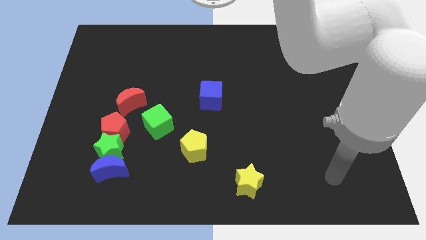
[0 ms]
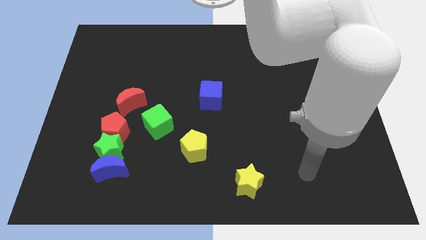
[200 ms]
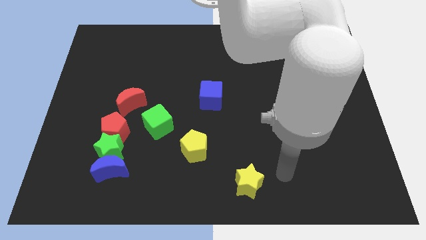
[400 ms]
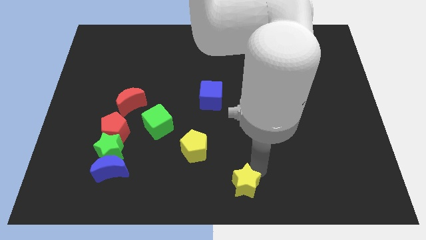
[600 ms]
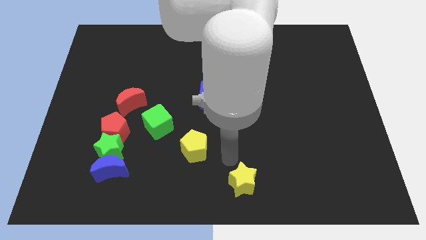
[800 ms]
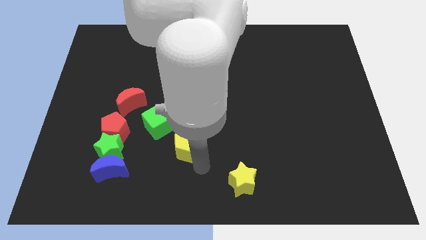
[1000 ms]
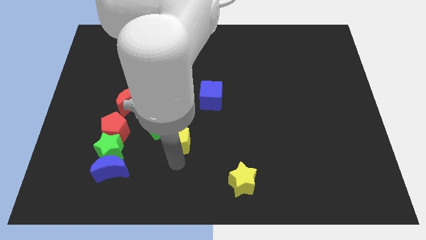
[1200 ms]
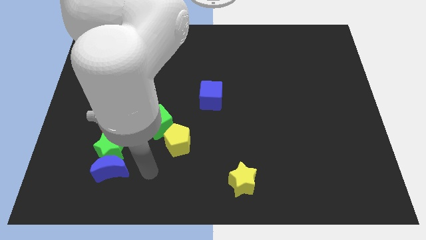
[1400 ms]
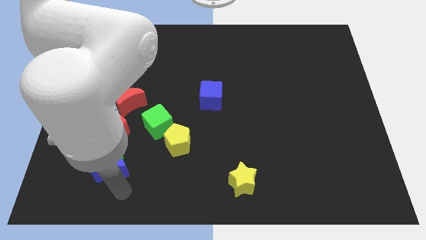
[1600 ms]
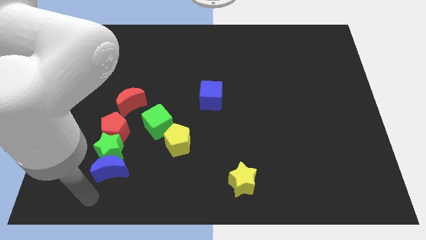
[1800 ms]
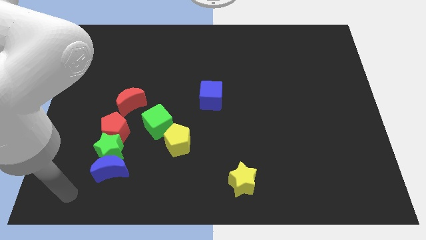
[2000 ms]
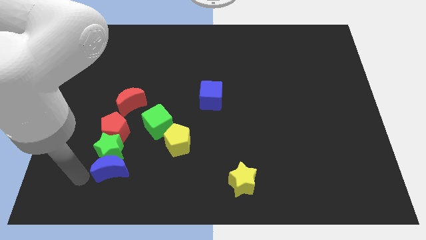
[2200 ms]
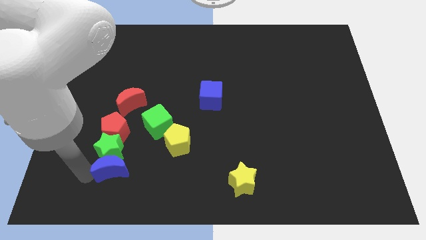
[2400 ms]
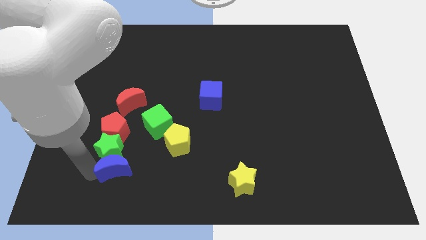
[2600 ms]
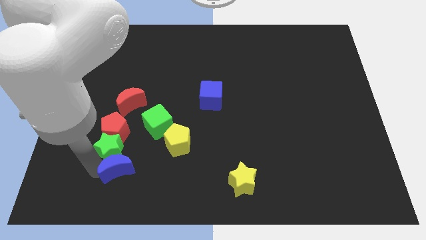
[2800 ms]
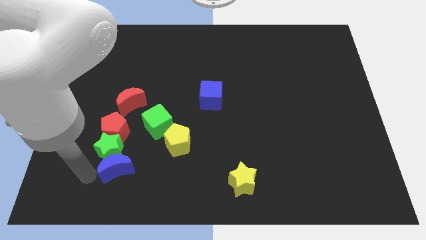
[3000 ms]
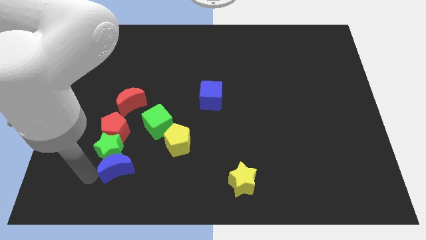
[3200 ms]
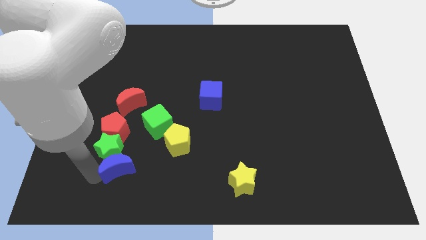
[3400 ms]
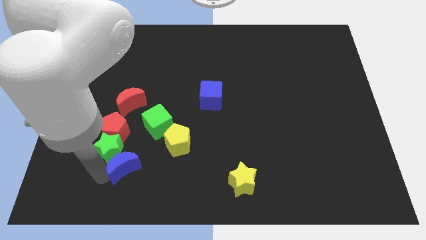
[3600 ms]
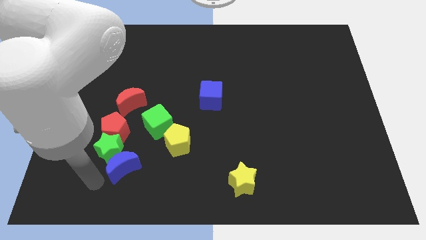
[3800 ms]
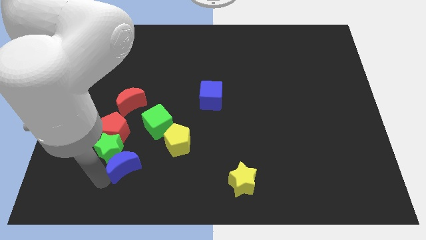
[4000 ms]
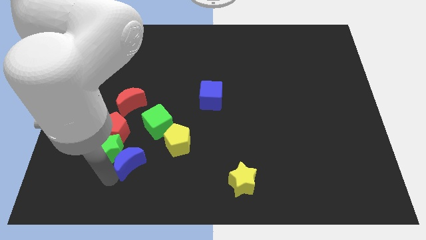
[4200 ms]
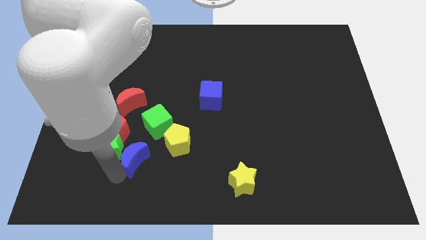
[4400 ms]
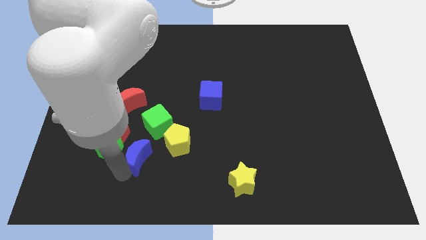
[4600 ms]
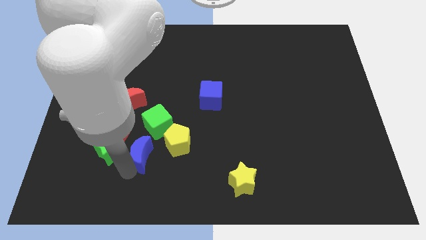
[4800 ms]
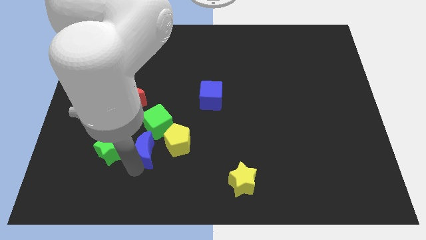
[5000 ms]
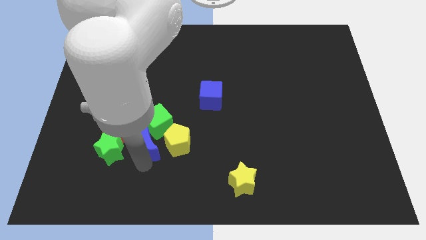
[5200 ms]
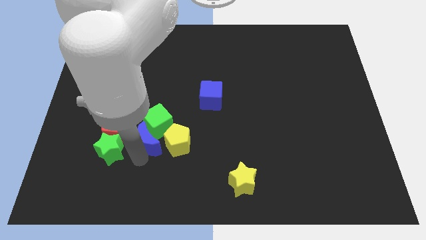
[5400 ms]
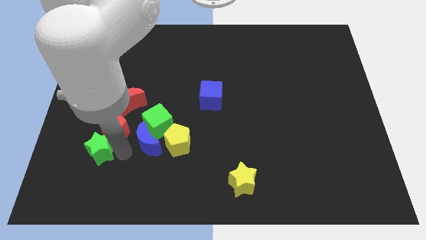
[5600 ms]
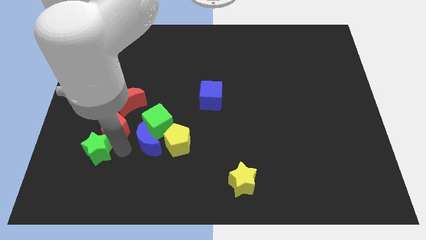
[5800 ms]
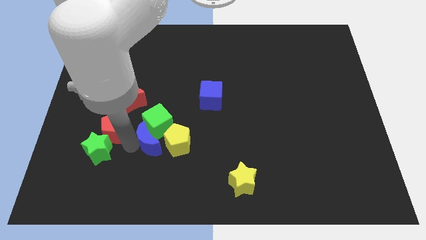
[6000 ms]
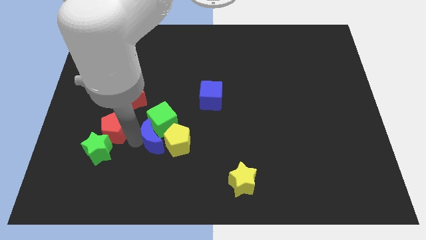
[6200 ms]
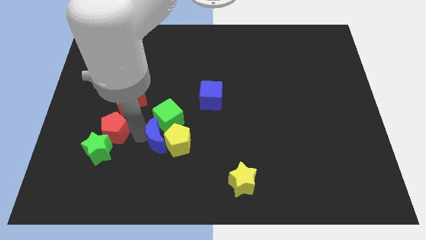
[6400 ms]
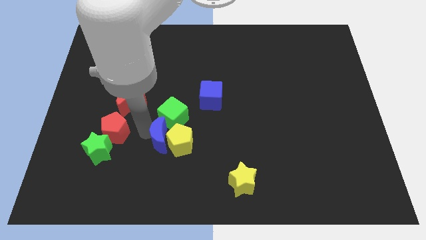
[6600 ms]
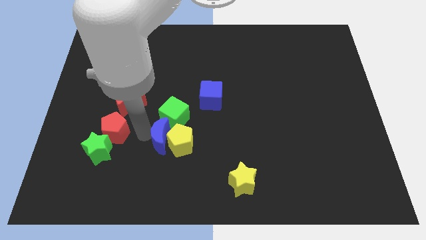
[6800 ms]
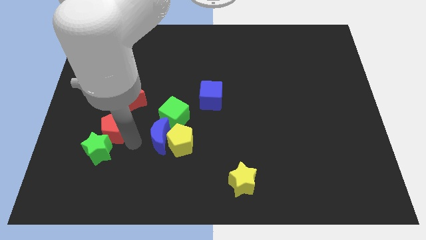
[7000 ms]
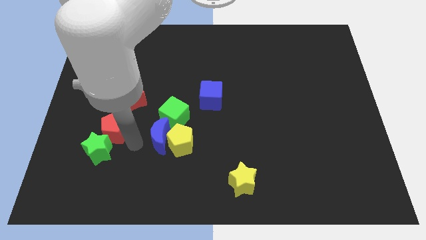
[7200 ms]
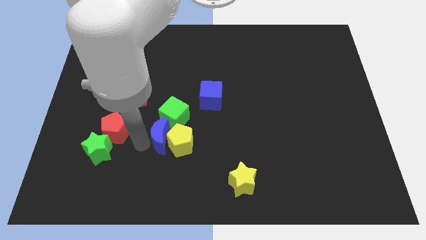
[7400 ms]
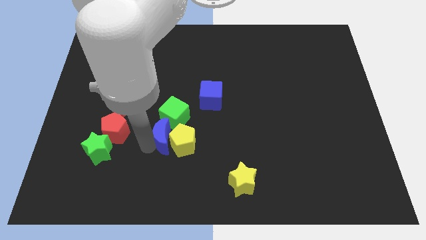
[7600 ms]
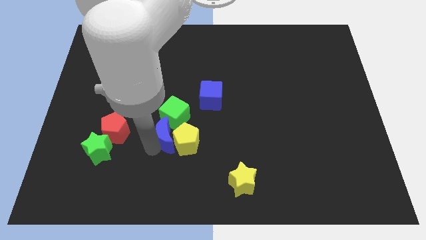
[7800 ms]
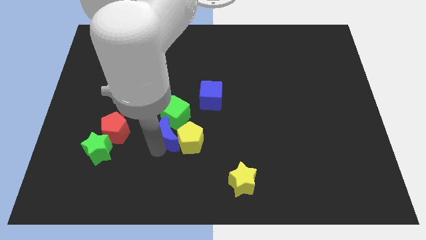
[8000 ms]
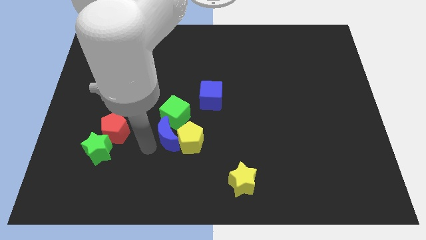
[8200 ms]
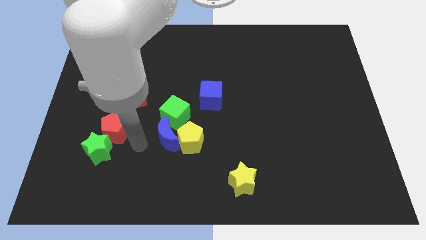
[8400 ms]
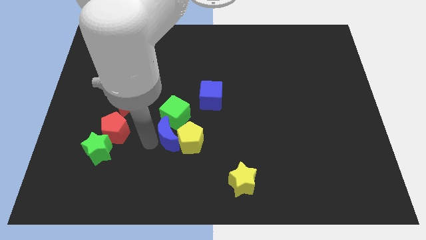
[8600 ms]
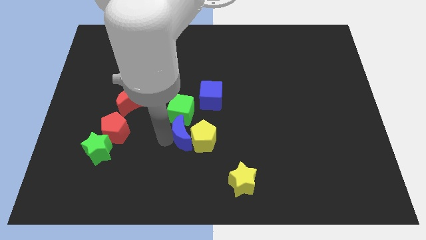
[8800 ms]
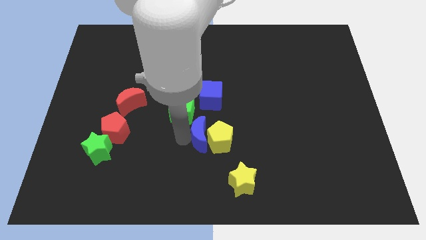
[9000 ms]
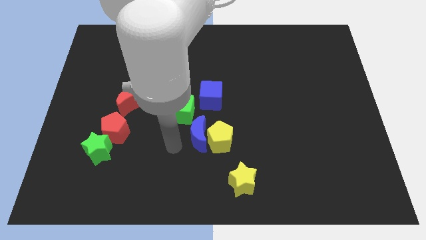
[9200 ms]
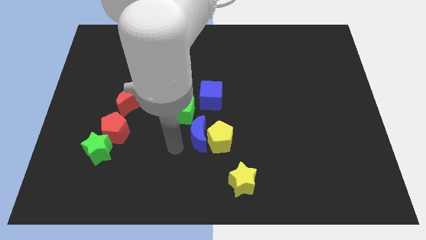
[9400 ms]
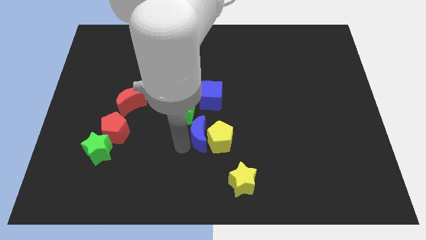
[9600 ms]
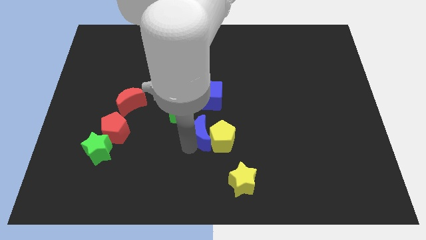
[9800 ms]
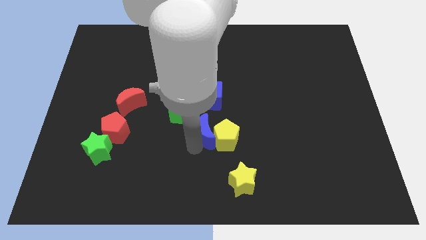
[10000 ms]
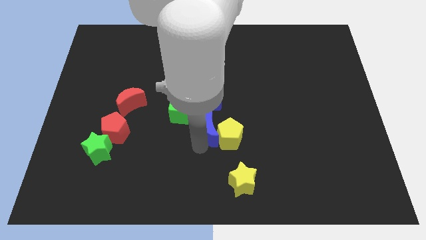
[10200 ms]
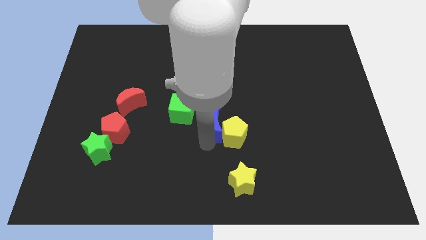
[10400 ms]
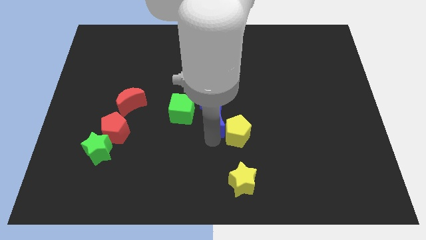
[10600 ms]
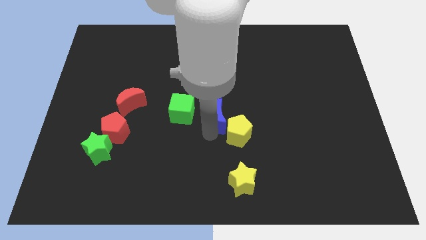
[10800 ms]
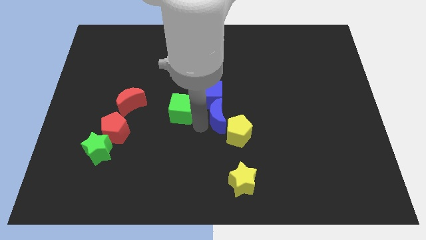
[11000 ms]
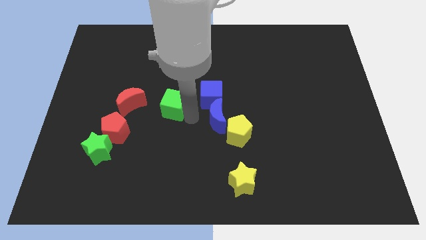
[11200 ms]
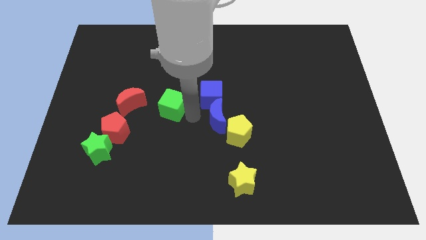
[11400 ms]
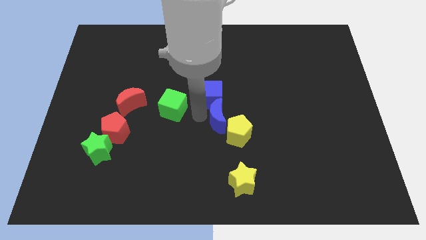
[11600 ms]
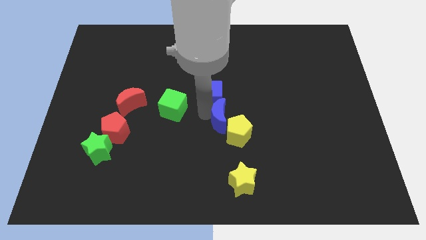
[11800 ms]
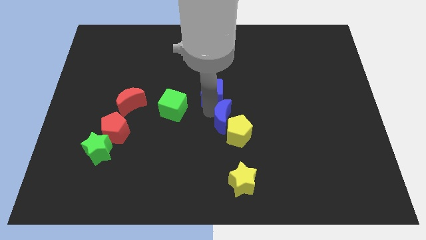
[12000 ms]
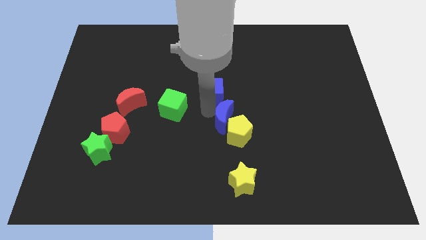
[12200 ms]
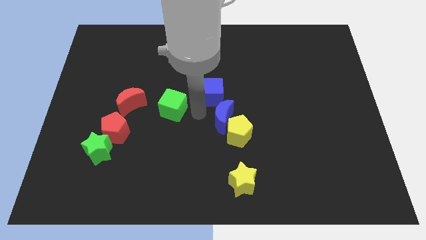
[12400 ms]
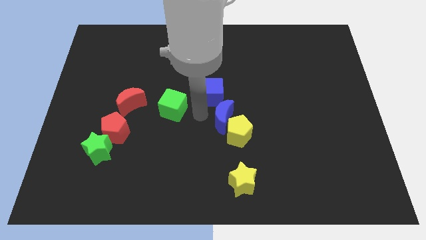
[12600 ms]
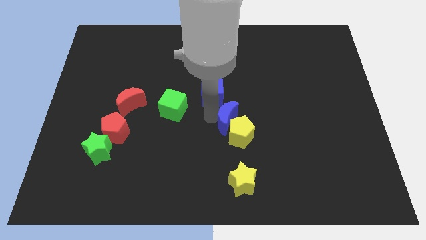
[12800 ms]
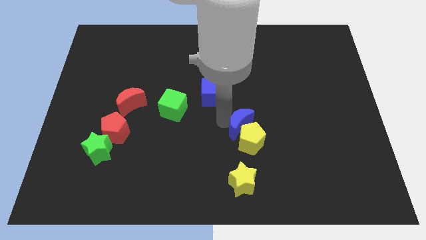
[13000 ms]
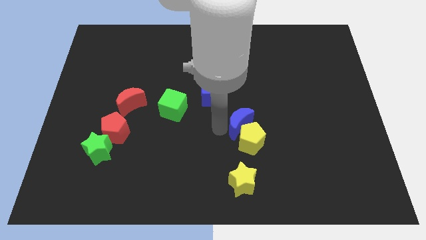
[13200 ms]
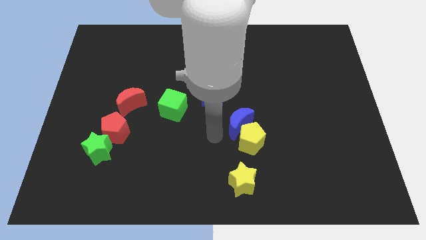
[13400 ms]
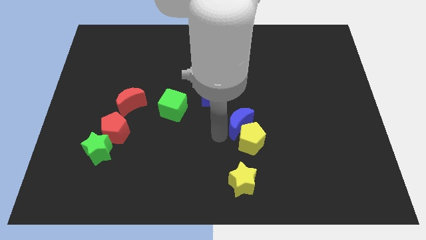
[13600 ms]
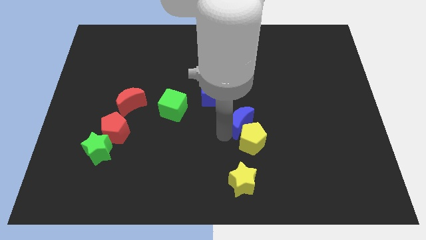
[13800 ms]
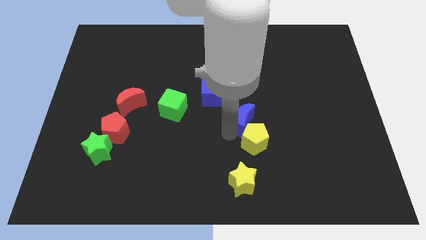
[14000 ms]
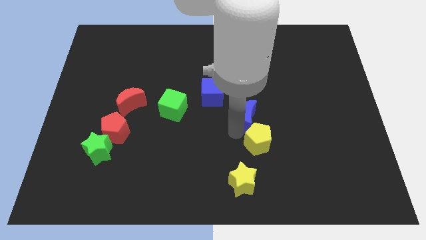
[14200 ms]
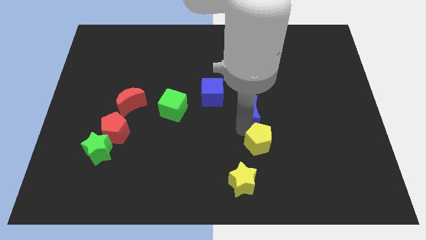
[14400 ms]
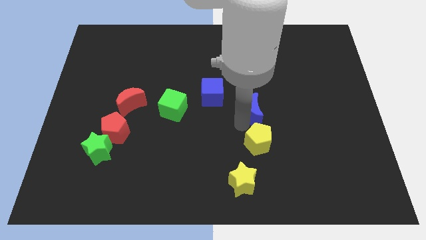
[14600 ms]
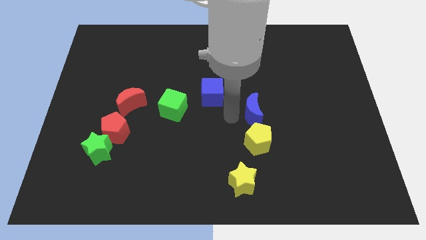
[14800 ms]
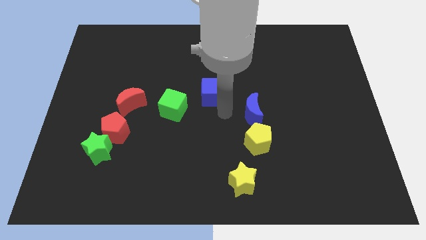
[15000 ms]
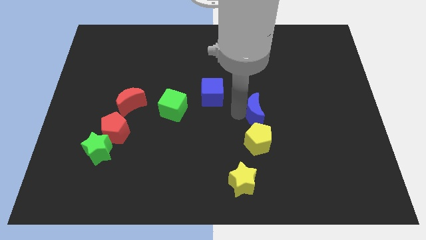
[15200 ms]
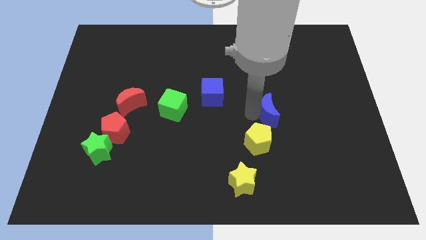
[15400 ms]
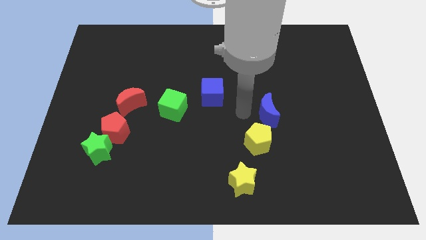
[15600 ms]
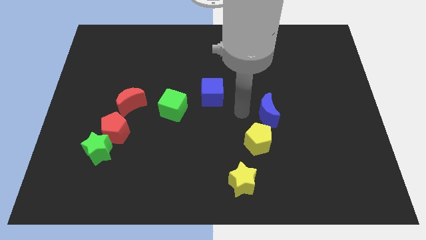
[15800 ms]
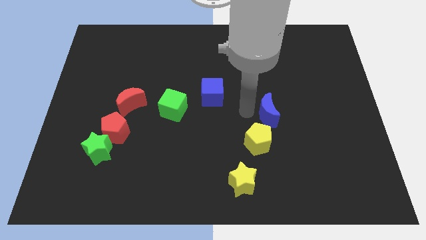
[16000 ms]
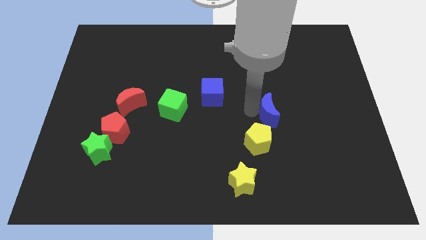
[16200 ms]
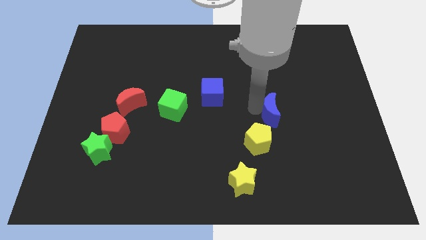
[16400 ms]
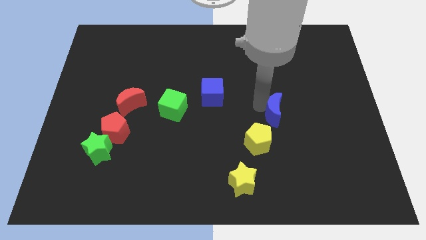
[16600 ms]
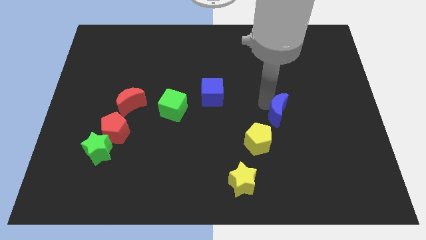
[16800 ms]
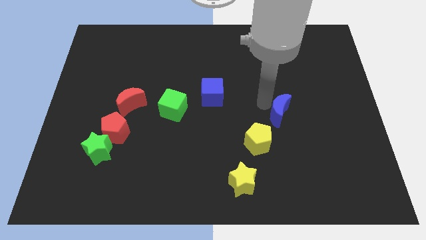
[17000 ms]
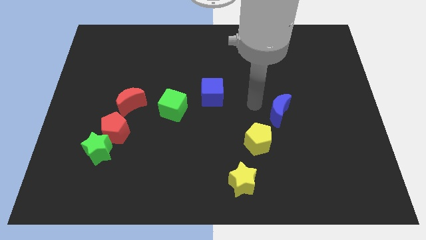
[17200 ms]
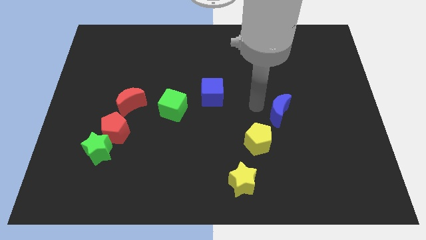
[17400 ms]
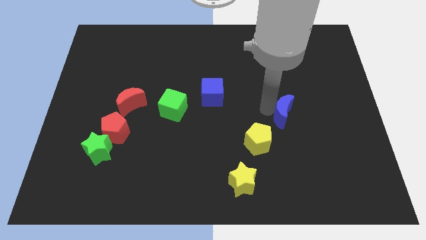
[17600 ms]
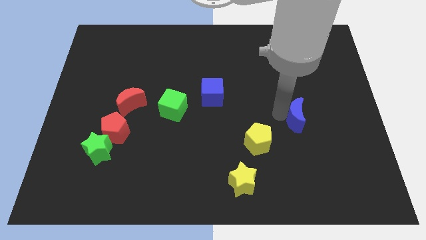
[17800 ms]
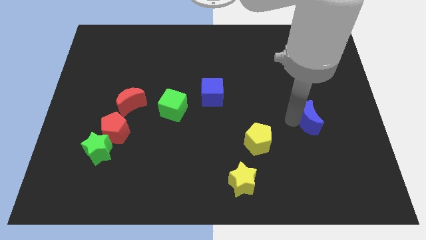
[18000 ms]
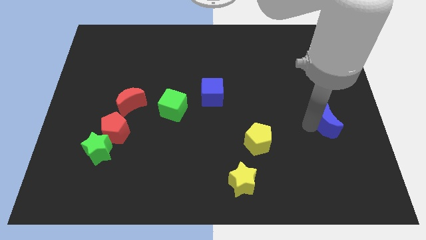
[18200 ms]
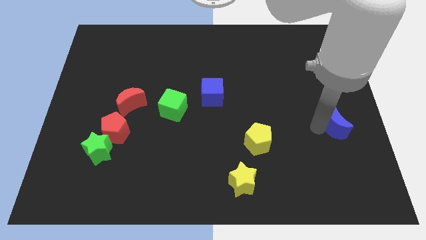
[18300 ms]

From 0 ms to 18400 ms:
slide the blue moon to the right side of the board
